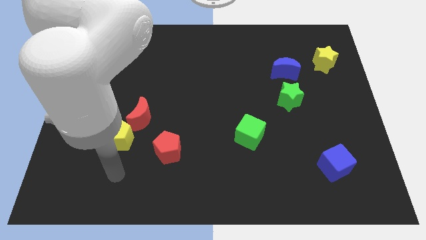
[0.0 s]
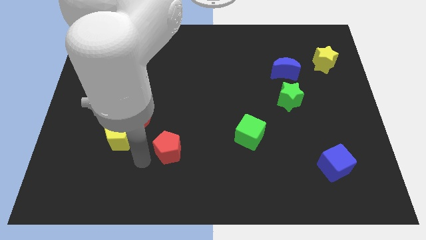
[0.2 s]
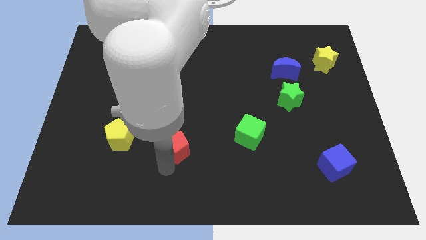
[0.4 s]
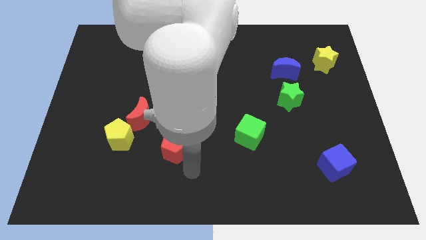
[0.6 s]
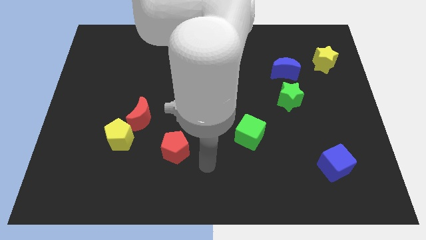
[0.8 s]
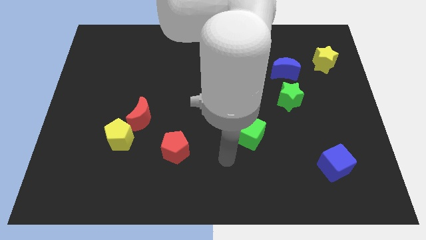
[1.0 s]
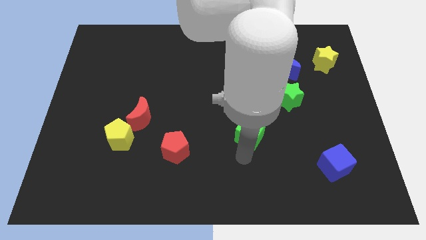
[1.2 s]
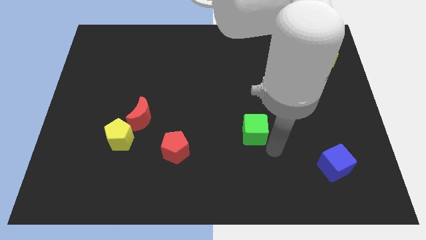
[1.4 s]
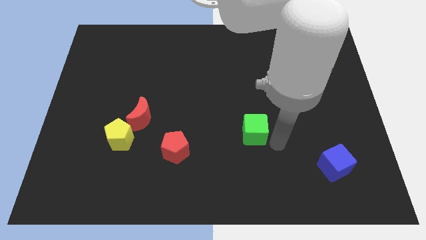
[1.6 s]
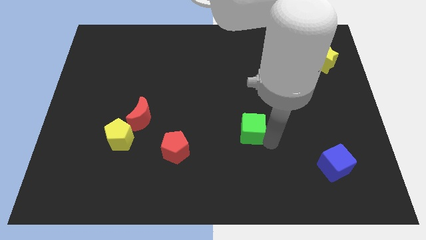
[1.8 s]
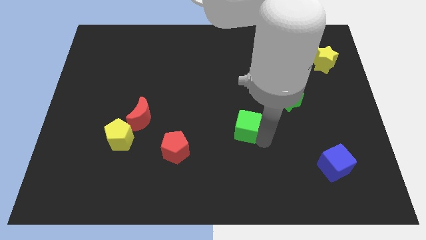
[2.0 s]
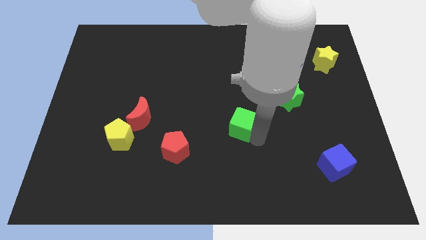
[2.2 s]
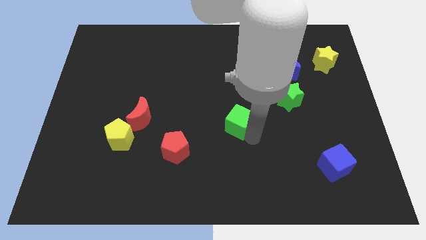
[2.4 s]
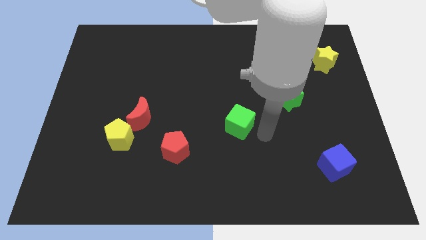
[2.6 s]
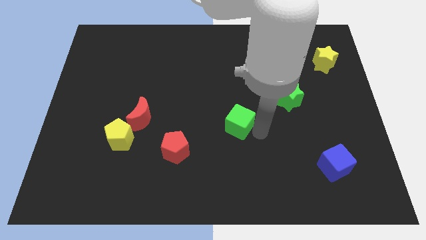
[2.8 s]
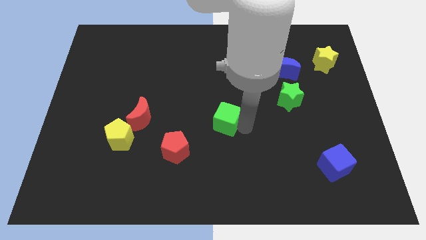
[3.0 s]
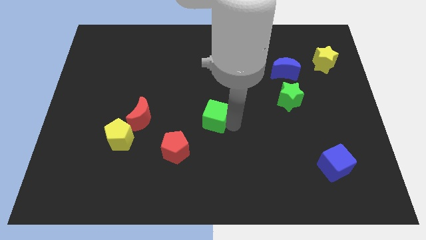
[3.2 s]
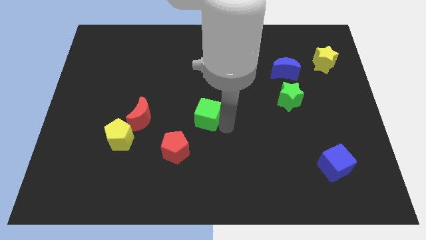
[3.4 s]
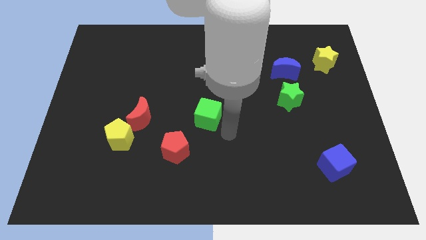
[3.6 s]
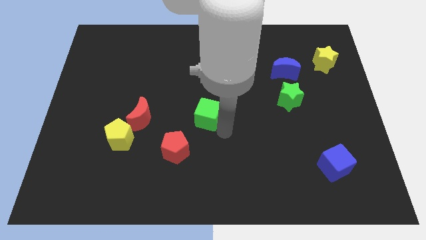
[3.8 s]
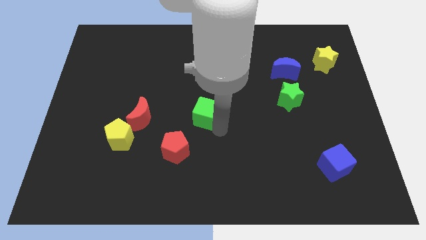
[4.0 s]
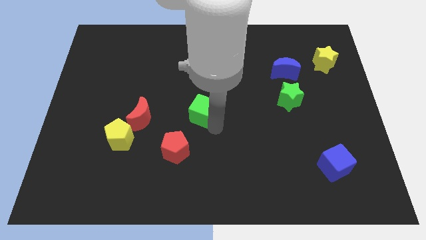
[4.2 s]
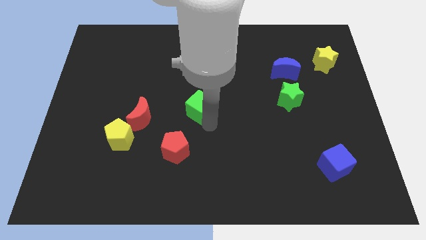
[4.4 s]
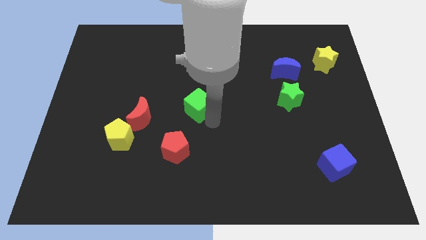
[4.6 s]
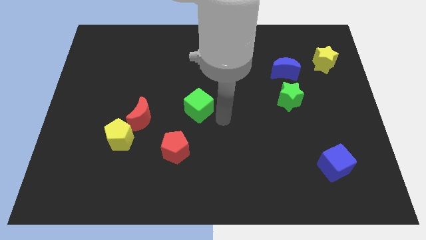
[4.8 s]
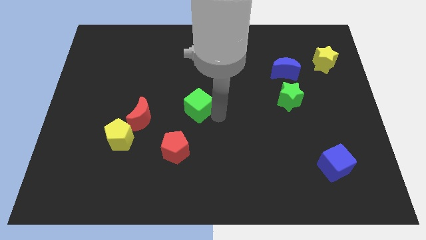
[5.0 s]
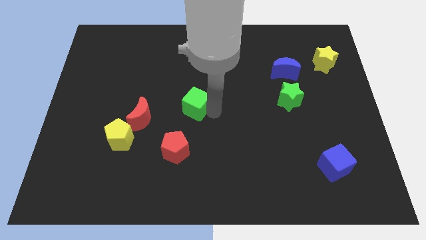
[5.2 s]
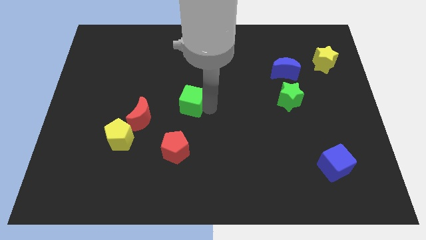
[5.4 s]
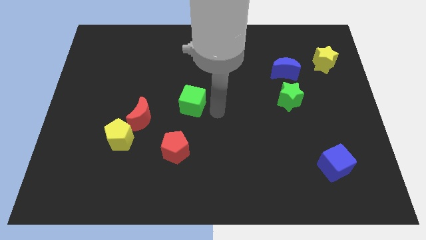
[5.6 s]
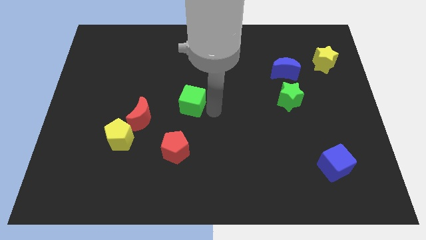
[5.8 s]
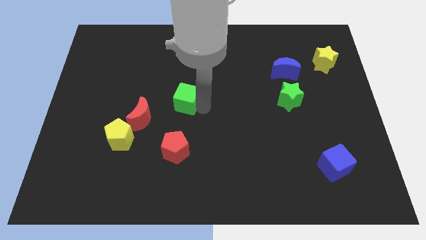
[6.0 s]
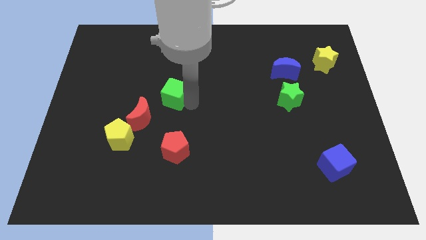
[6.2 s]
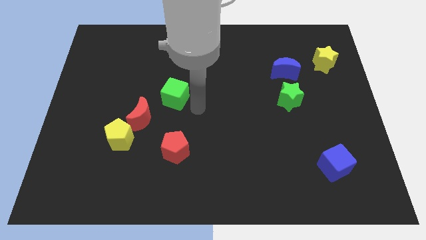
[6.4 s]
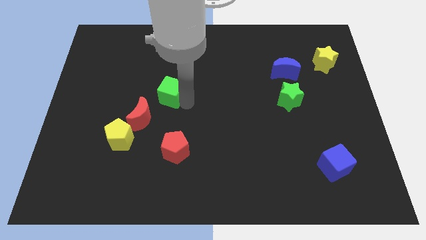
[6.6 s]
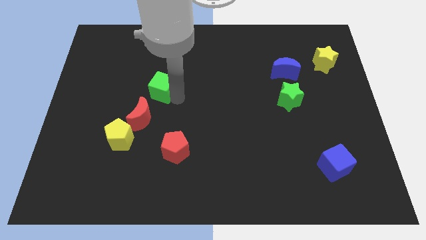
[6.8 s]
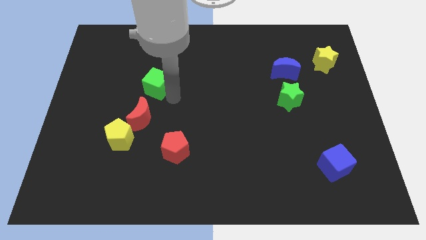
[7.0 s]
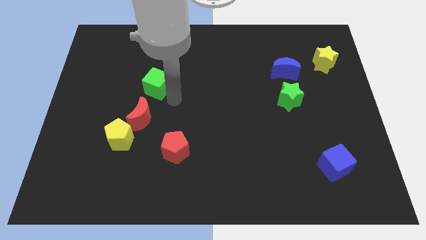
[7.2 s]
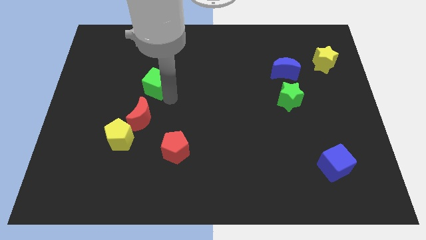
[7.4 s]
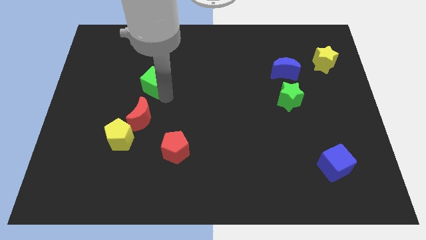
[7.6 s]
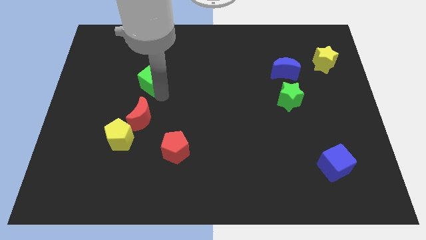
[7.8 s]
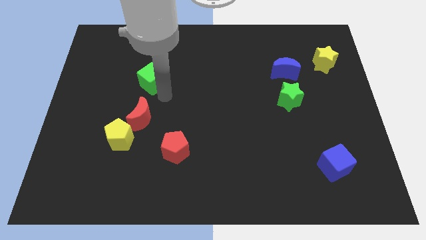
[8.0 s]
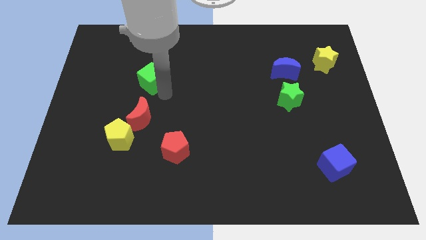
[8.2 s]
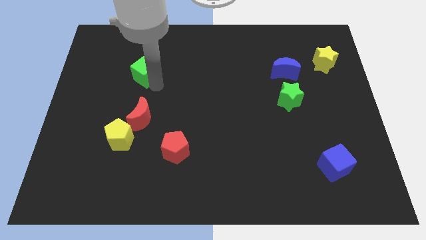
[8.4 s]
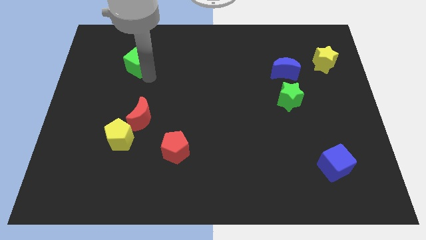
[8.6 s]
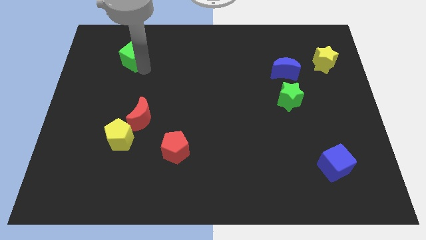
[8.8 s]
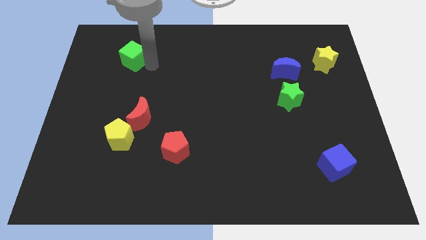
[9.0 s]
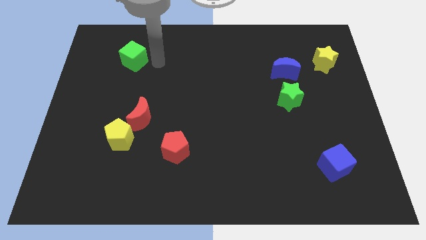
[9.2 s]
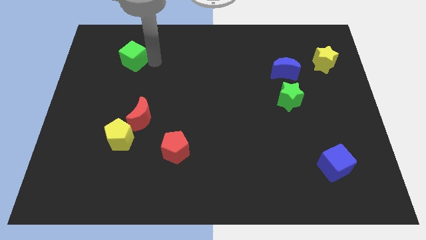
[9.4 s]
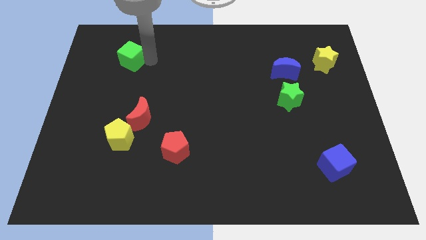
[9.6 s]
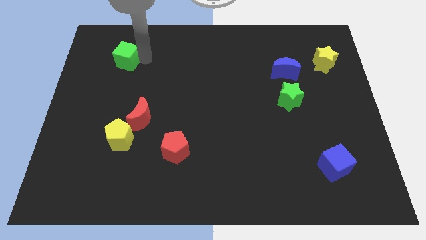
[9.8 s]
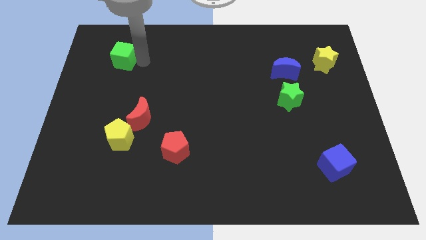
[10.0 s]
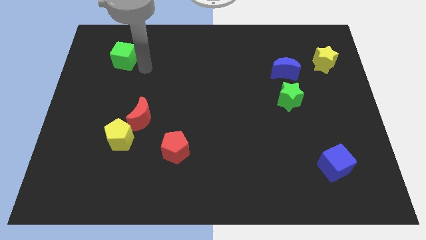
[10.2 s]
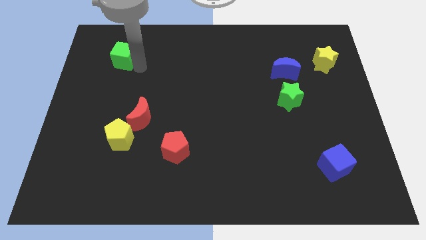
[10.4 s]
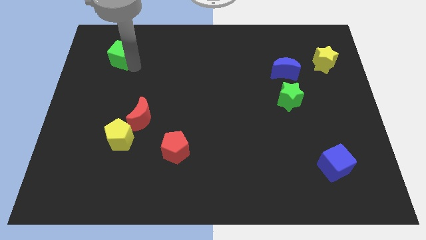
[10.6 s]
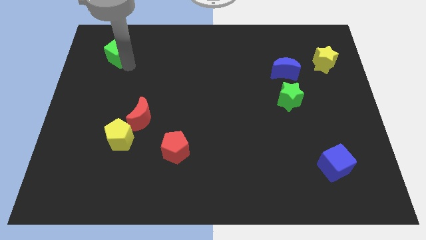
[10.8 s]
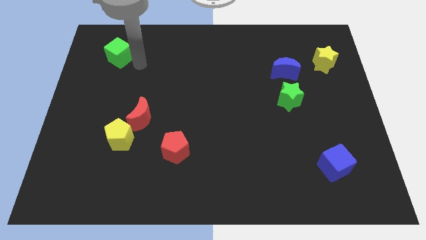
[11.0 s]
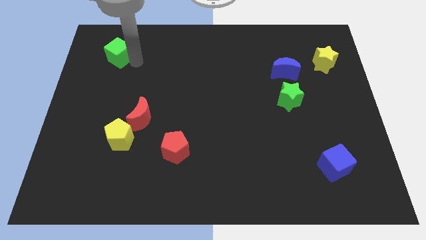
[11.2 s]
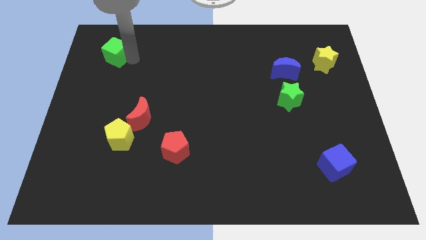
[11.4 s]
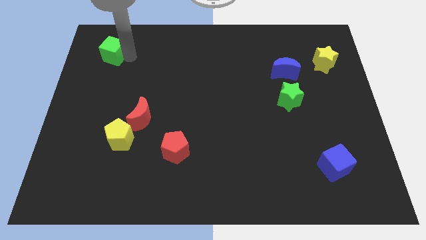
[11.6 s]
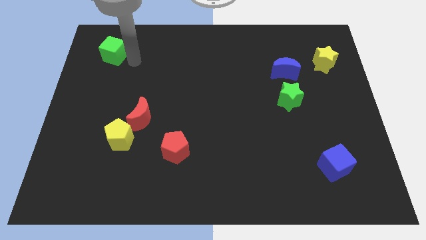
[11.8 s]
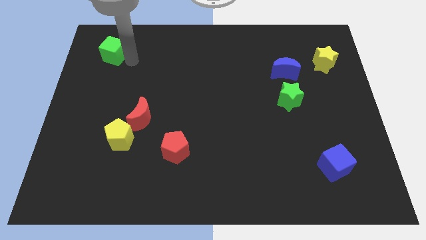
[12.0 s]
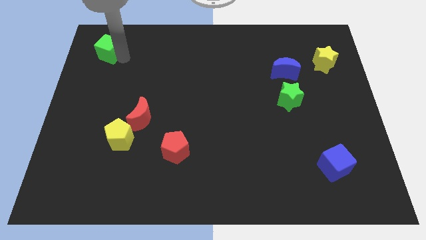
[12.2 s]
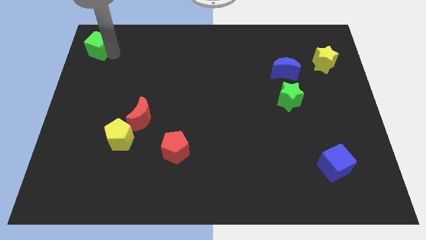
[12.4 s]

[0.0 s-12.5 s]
move the green cube to the upper left corner

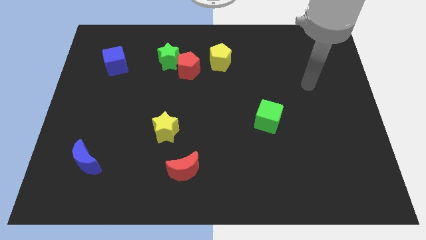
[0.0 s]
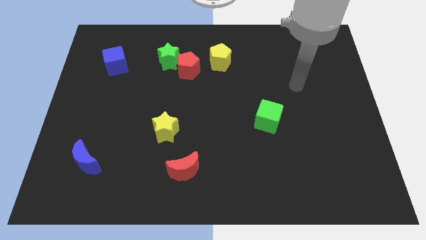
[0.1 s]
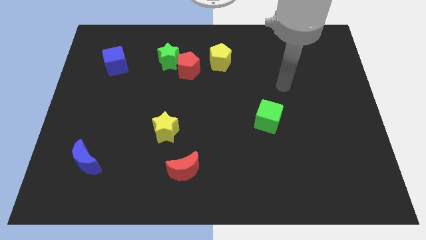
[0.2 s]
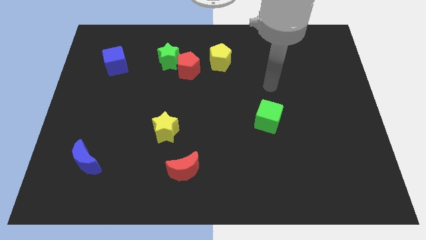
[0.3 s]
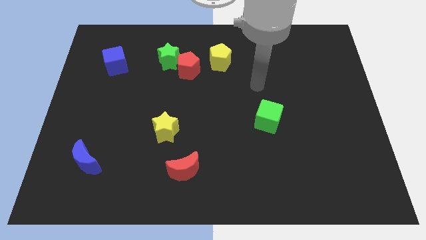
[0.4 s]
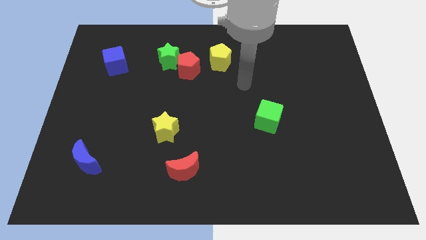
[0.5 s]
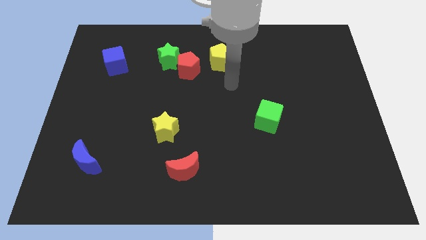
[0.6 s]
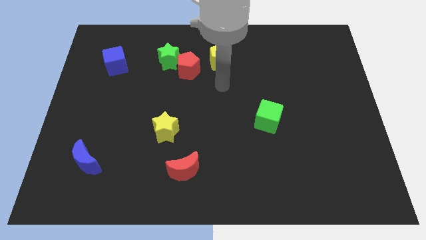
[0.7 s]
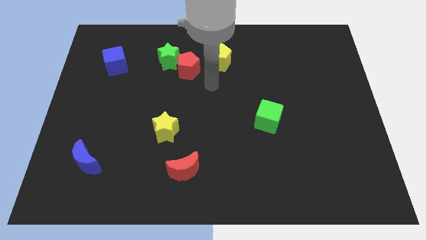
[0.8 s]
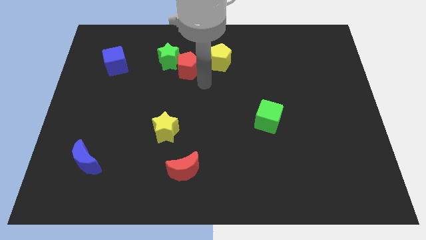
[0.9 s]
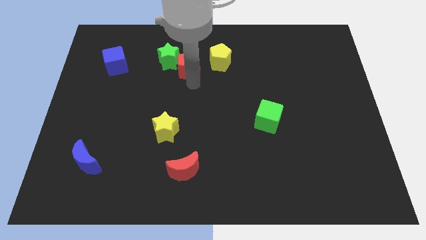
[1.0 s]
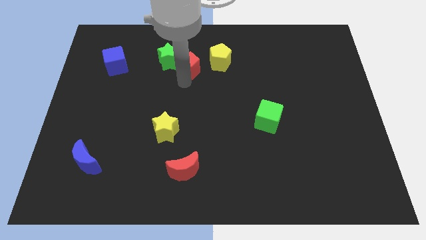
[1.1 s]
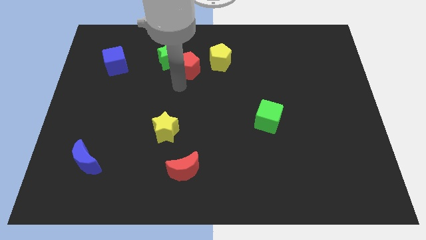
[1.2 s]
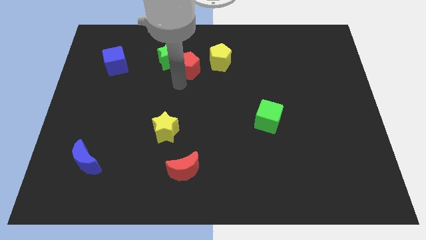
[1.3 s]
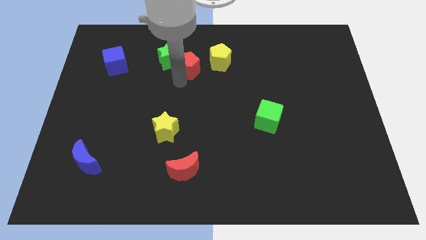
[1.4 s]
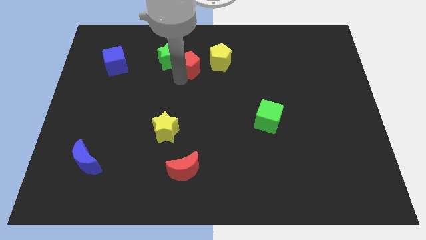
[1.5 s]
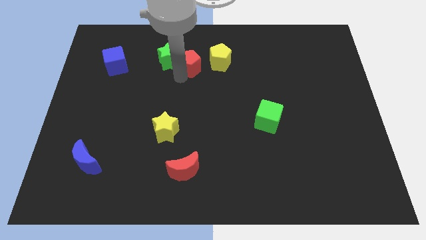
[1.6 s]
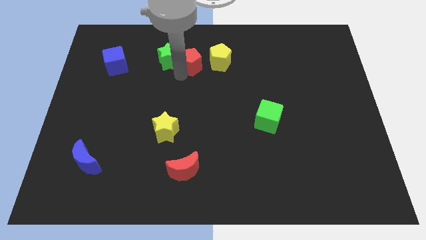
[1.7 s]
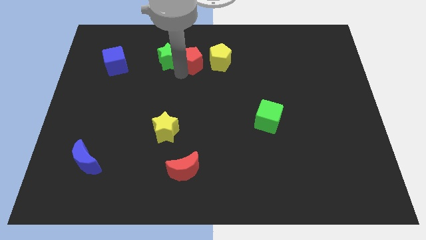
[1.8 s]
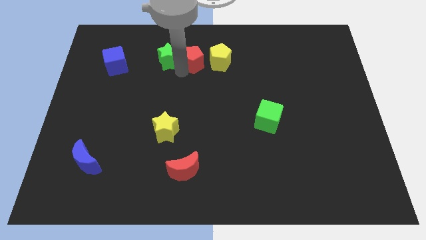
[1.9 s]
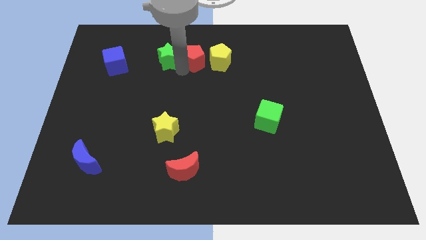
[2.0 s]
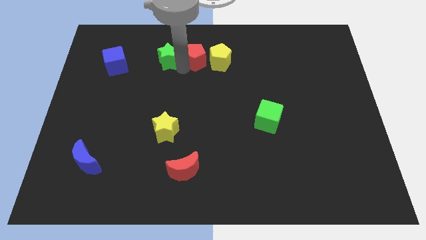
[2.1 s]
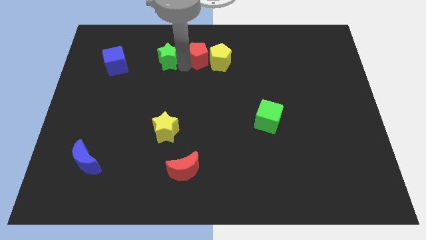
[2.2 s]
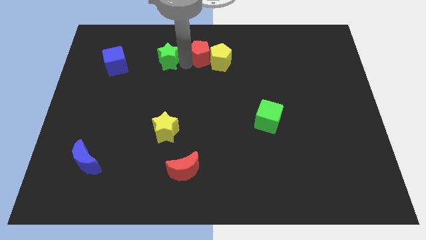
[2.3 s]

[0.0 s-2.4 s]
push the red pentagon to the top side
